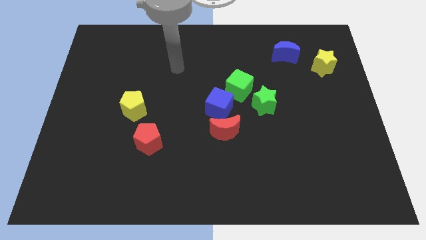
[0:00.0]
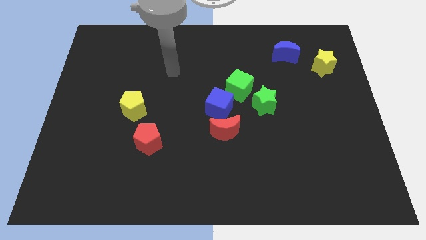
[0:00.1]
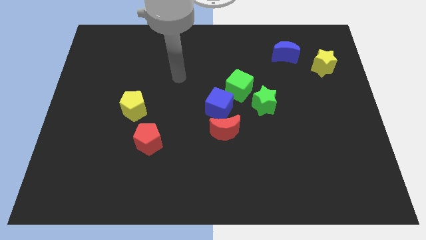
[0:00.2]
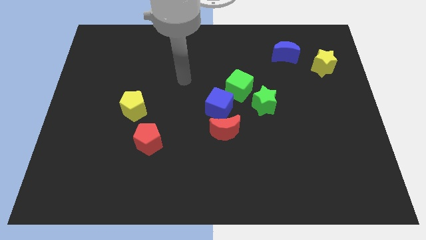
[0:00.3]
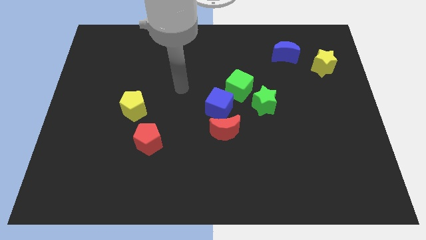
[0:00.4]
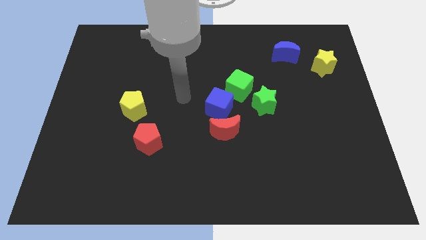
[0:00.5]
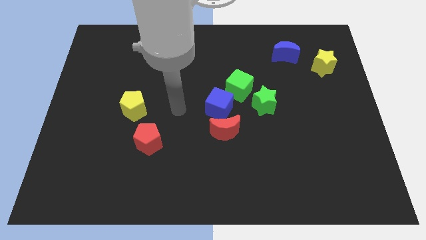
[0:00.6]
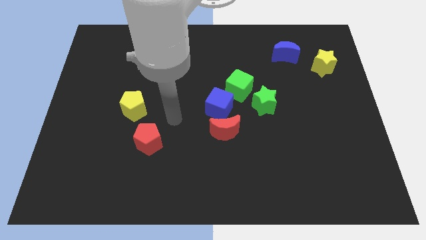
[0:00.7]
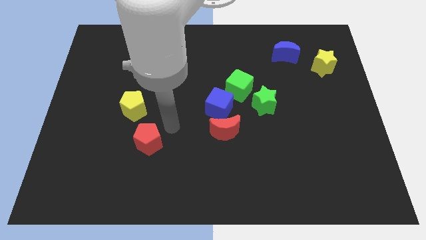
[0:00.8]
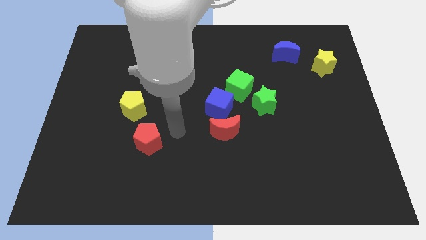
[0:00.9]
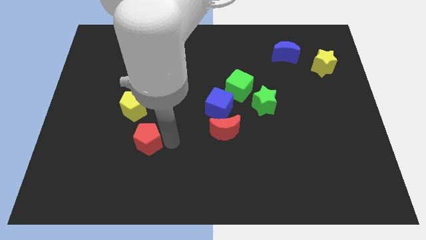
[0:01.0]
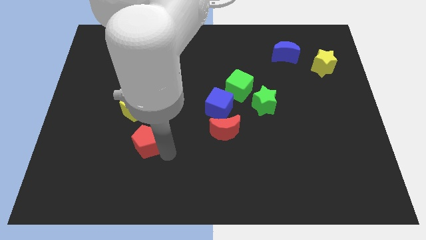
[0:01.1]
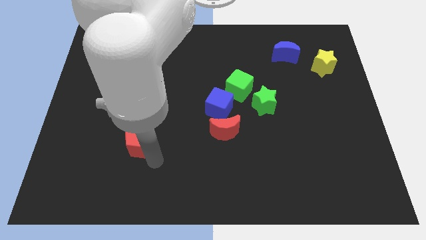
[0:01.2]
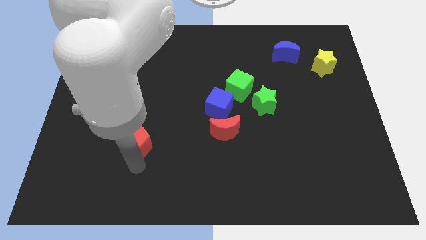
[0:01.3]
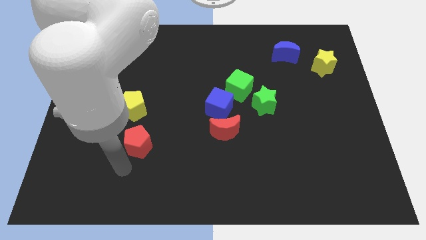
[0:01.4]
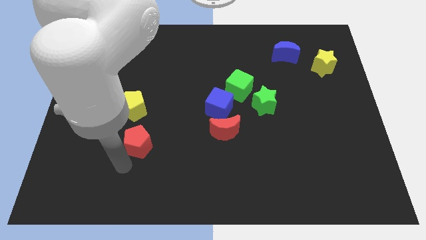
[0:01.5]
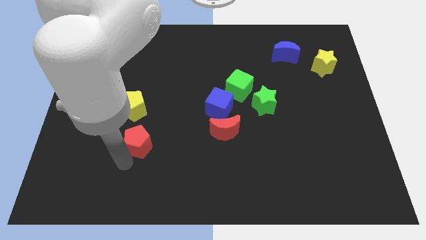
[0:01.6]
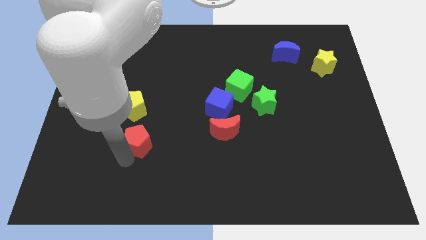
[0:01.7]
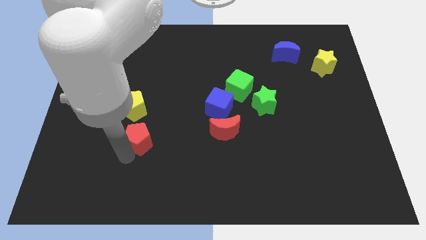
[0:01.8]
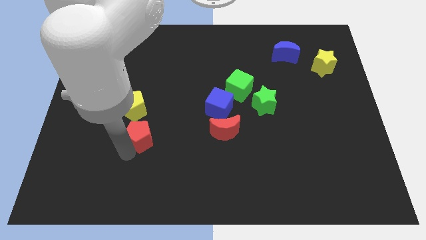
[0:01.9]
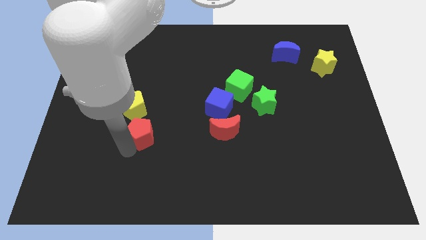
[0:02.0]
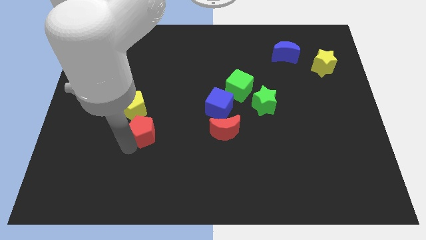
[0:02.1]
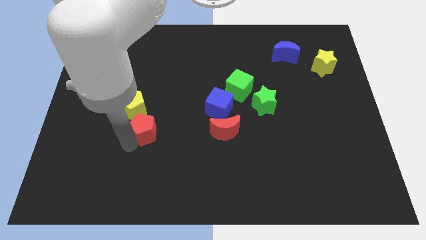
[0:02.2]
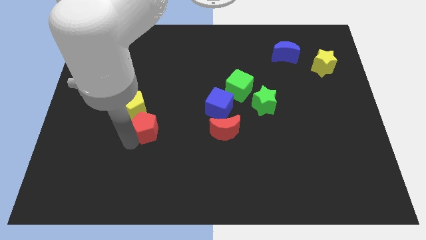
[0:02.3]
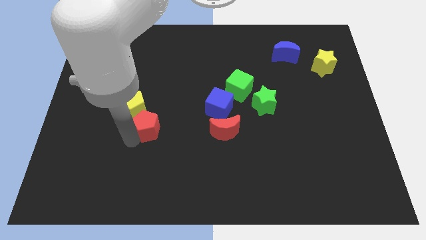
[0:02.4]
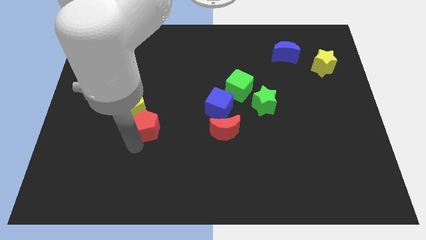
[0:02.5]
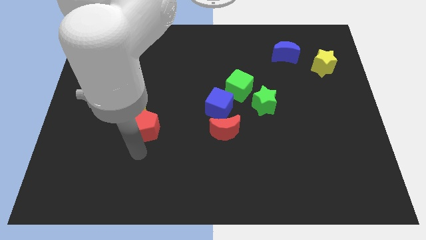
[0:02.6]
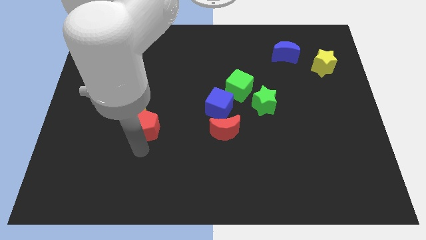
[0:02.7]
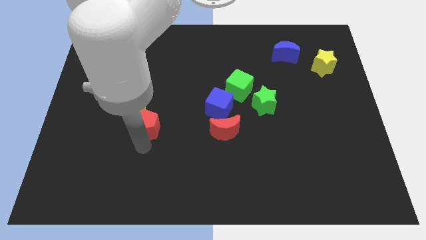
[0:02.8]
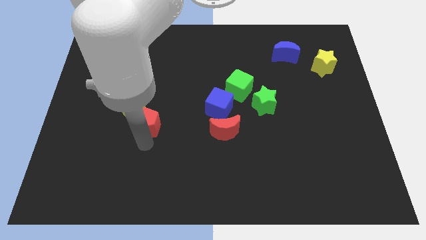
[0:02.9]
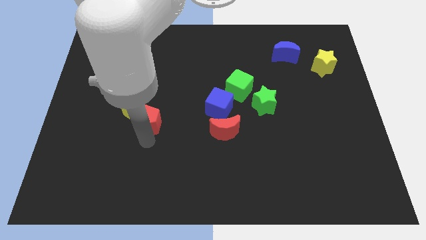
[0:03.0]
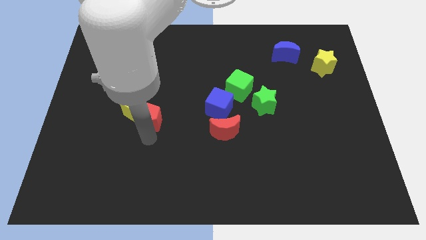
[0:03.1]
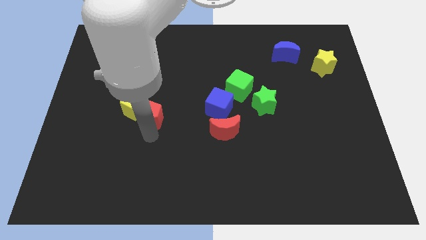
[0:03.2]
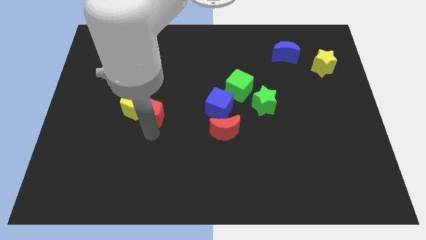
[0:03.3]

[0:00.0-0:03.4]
push the red pentagon upwards a bit

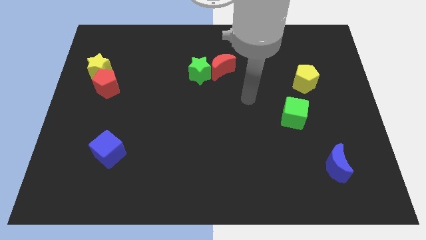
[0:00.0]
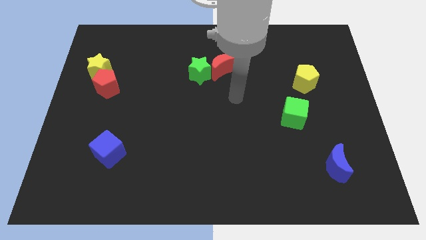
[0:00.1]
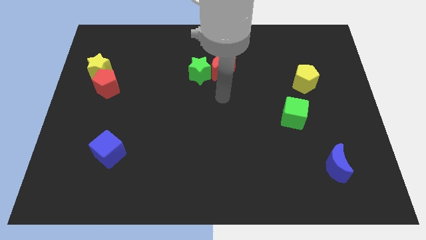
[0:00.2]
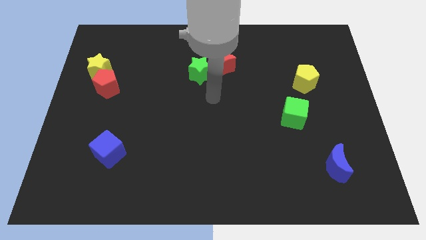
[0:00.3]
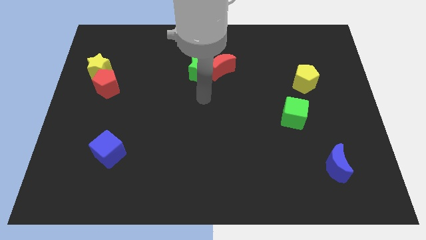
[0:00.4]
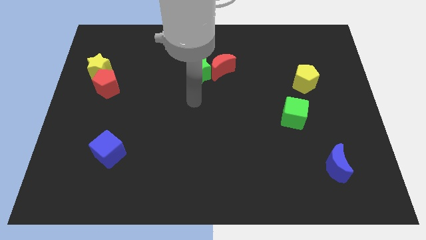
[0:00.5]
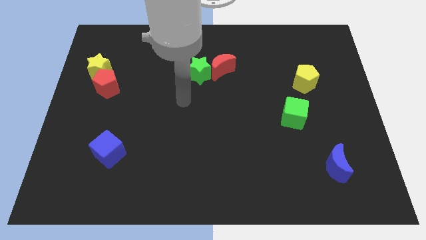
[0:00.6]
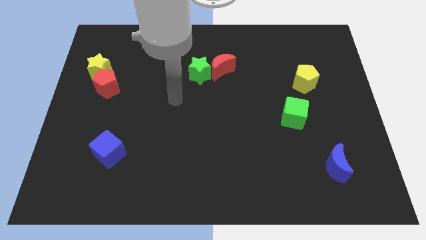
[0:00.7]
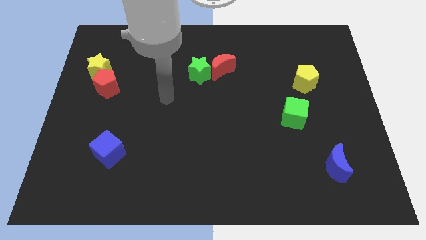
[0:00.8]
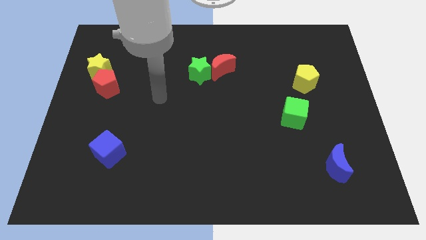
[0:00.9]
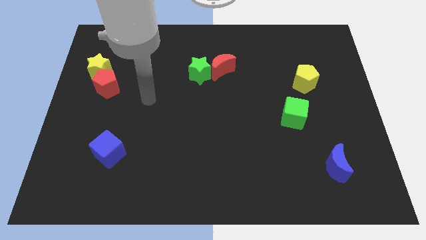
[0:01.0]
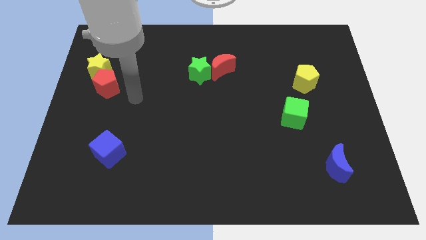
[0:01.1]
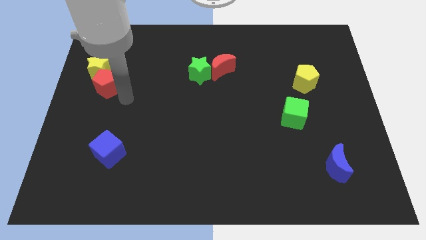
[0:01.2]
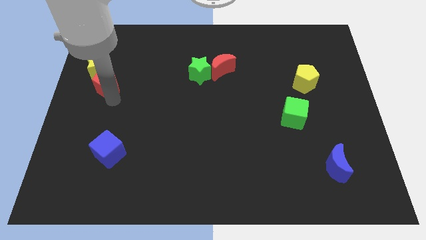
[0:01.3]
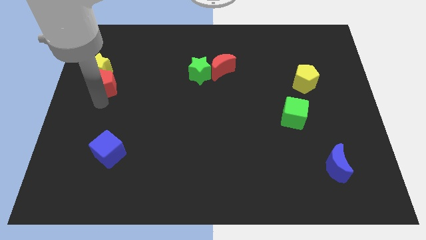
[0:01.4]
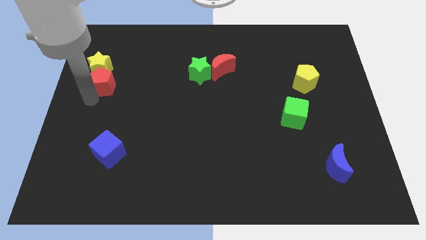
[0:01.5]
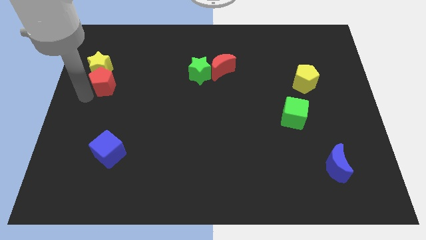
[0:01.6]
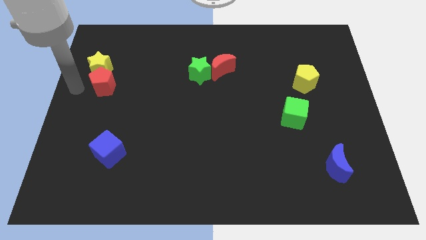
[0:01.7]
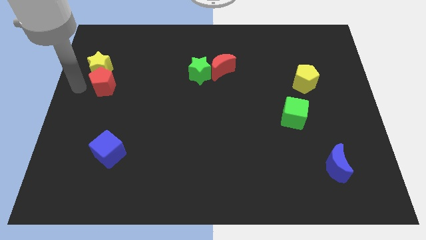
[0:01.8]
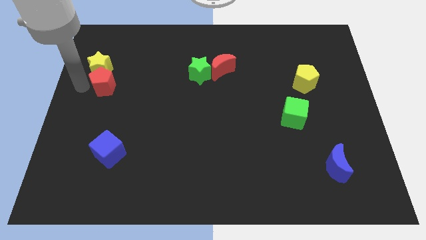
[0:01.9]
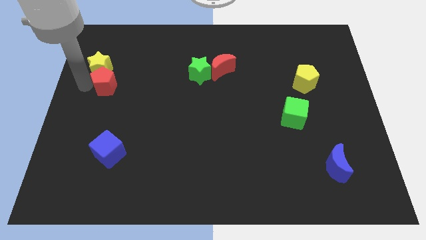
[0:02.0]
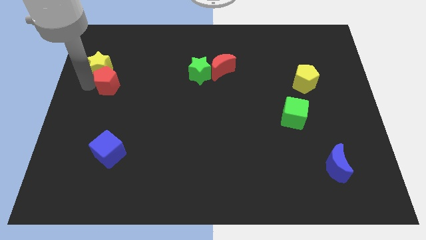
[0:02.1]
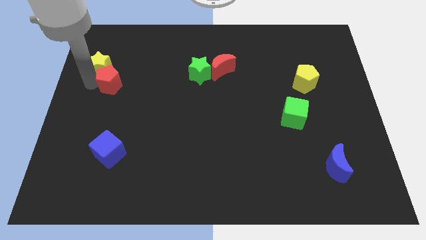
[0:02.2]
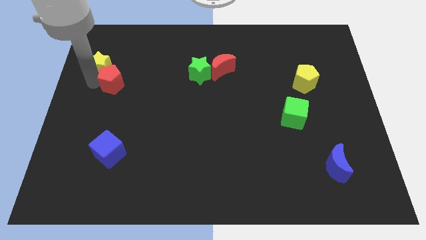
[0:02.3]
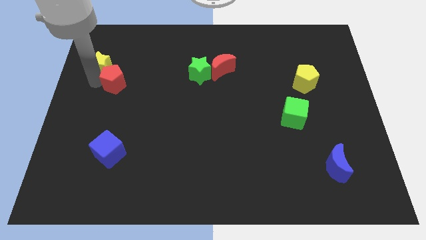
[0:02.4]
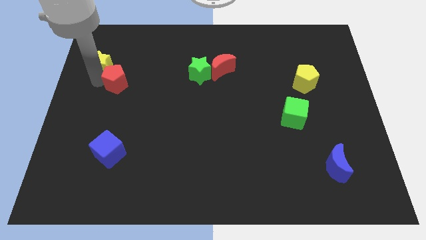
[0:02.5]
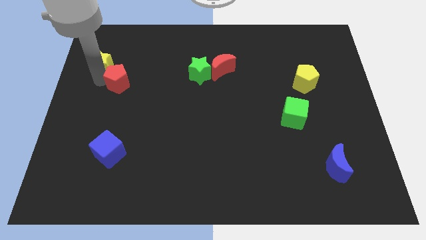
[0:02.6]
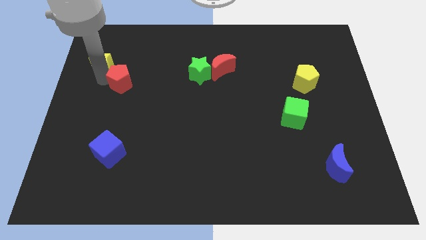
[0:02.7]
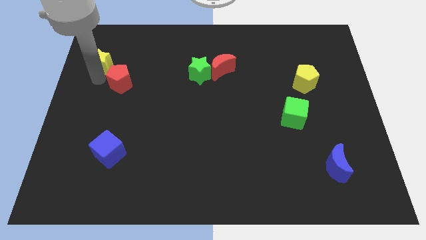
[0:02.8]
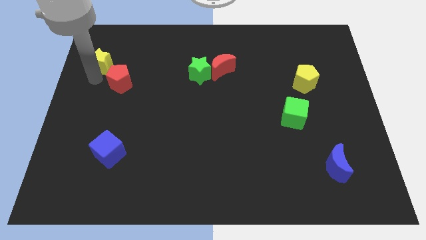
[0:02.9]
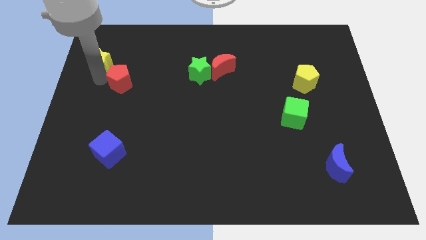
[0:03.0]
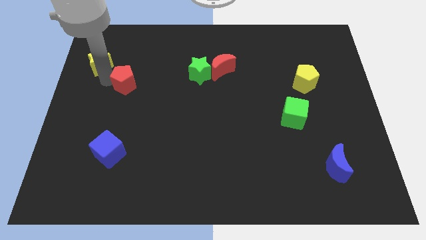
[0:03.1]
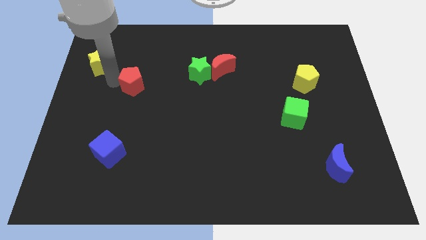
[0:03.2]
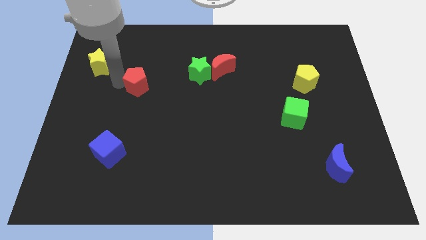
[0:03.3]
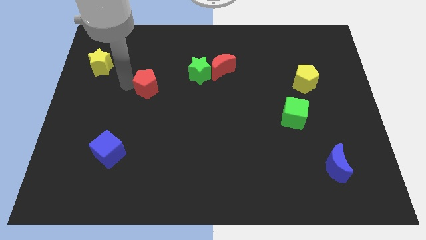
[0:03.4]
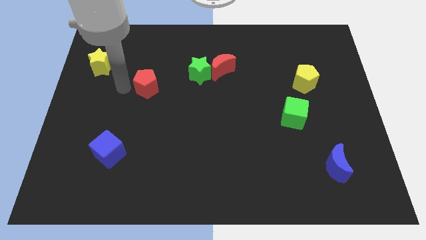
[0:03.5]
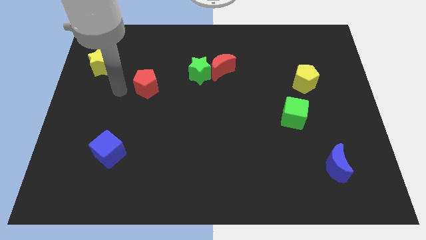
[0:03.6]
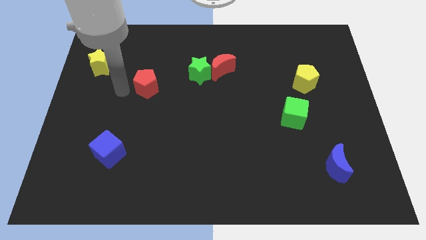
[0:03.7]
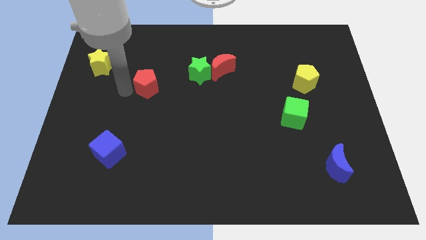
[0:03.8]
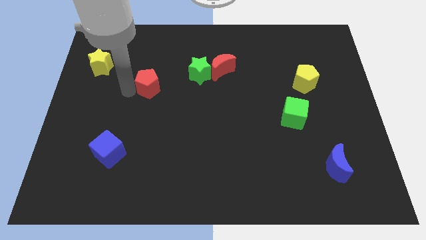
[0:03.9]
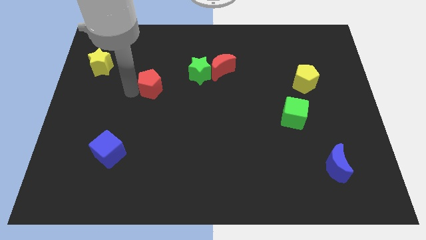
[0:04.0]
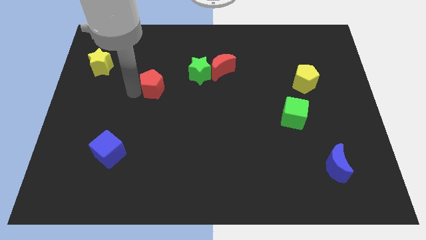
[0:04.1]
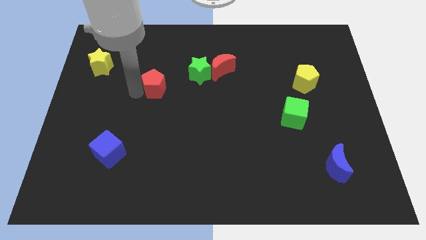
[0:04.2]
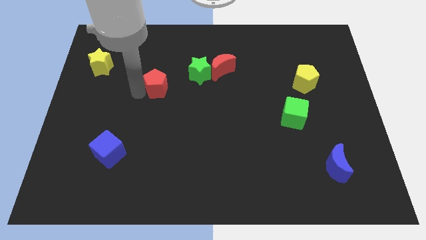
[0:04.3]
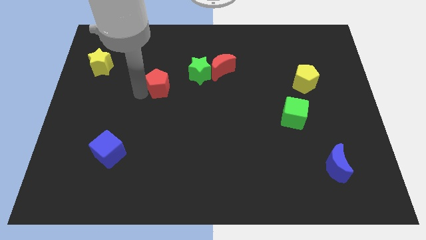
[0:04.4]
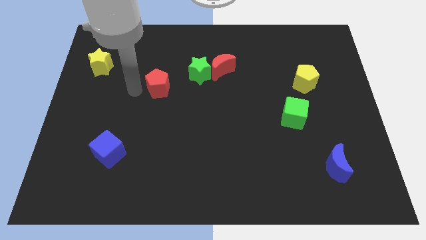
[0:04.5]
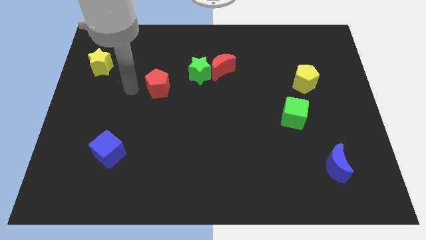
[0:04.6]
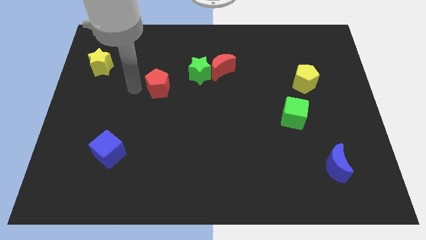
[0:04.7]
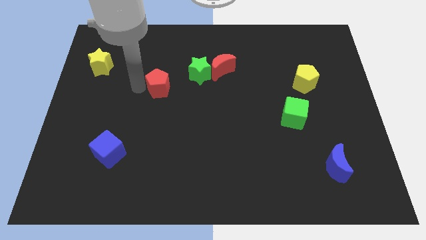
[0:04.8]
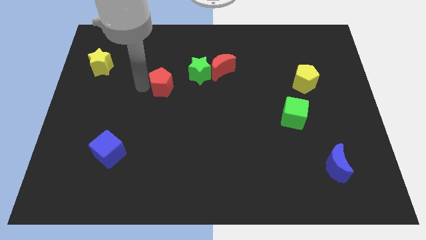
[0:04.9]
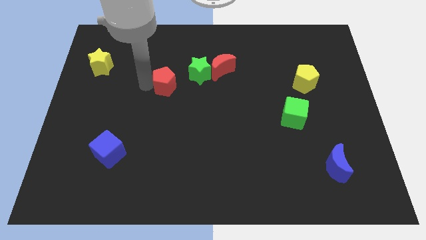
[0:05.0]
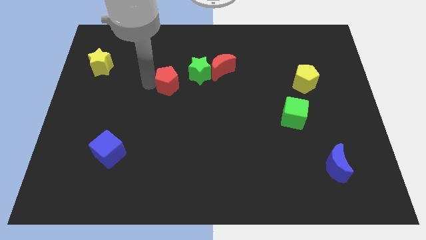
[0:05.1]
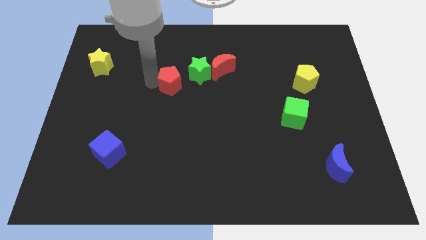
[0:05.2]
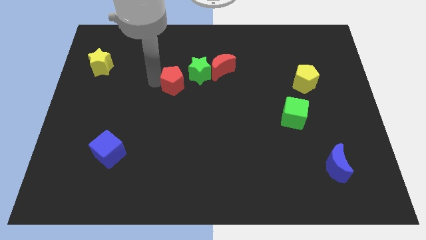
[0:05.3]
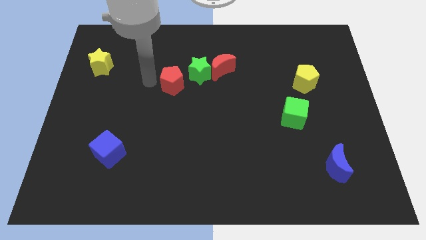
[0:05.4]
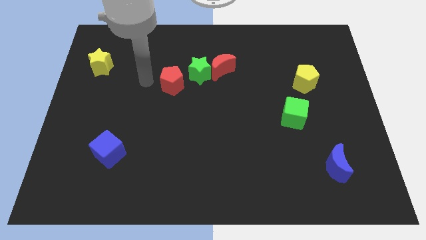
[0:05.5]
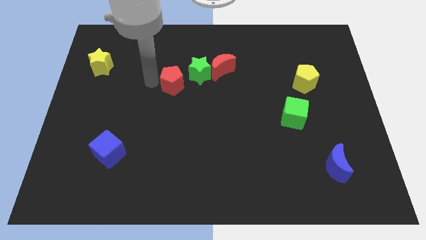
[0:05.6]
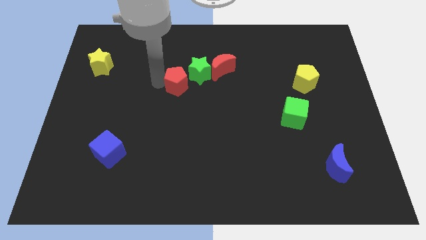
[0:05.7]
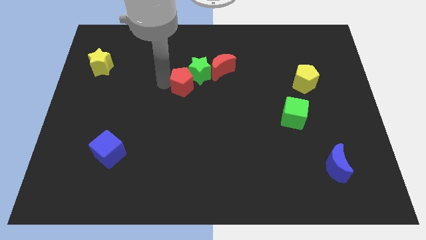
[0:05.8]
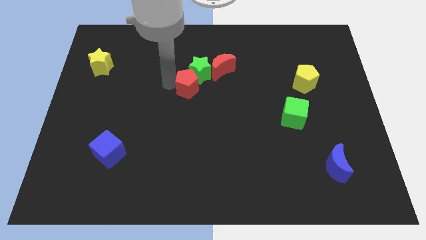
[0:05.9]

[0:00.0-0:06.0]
move the red pentagon to the right
